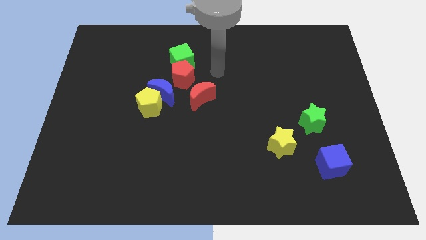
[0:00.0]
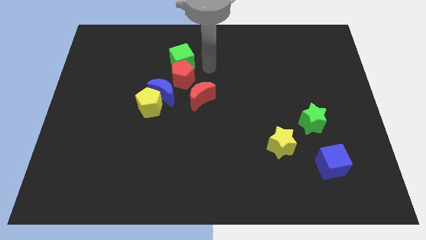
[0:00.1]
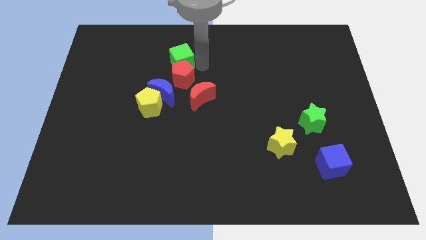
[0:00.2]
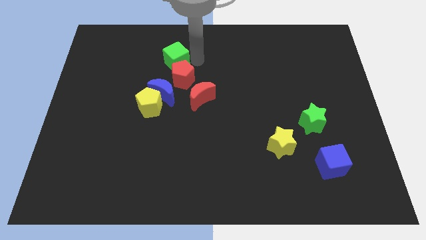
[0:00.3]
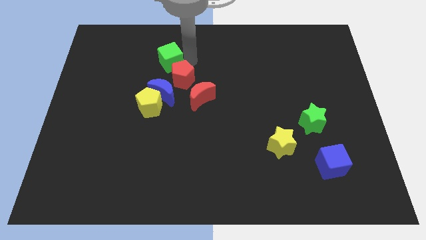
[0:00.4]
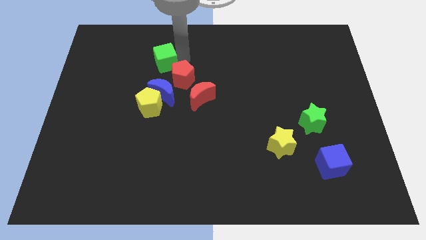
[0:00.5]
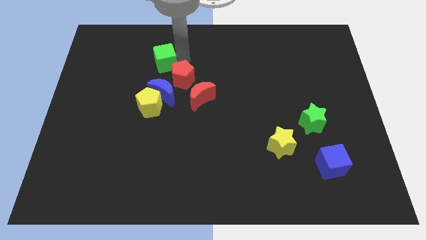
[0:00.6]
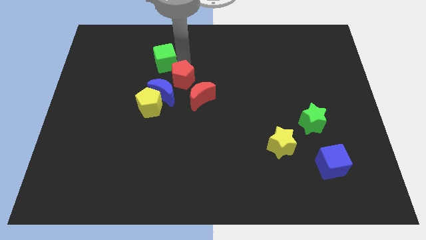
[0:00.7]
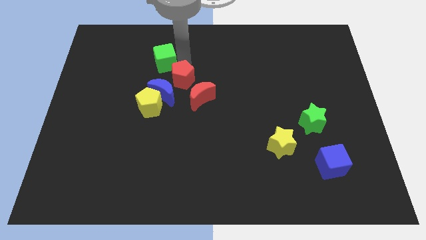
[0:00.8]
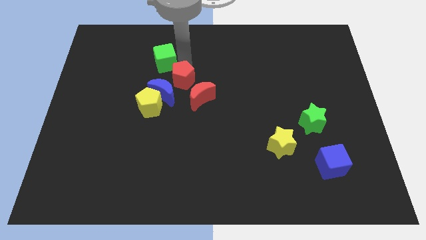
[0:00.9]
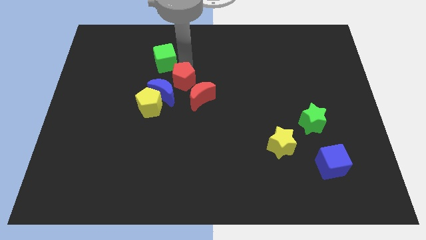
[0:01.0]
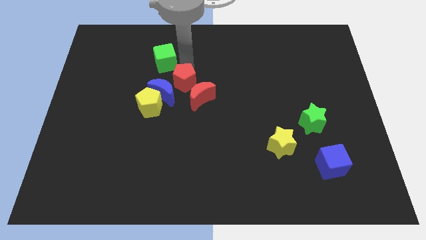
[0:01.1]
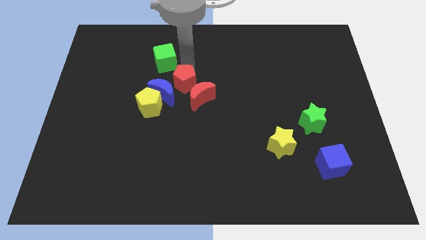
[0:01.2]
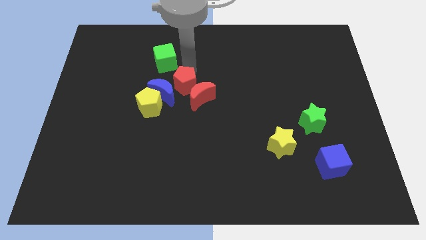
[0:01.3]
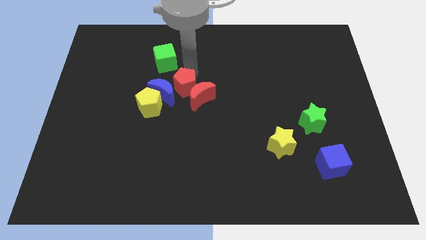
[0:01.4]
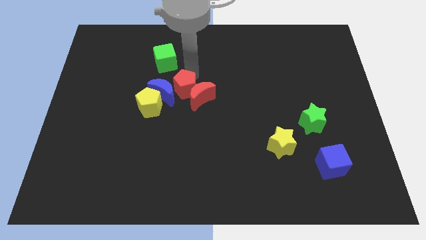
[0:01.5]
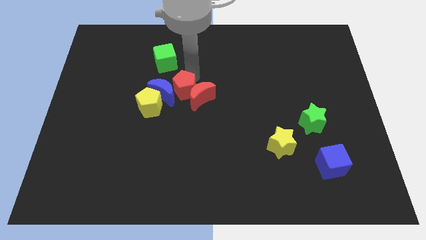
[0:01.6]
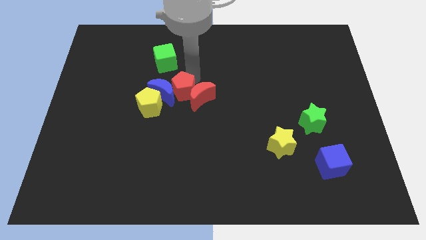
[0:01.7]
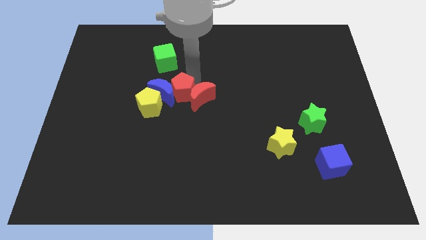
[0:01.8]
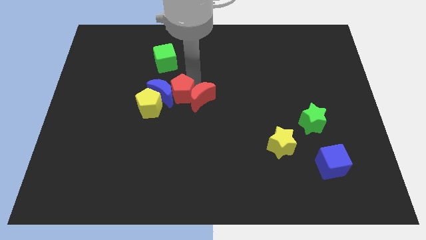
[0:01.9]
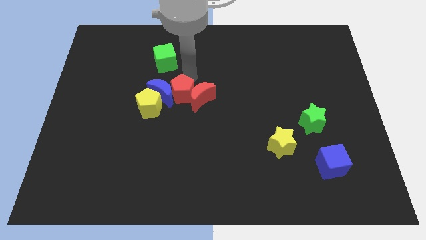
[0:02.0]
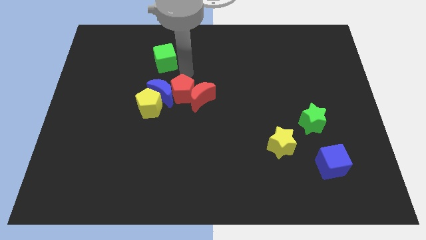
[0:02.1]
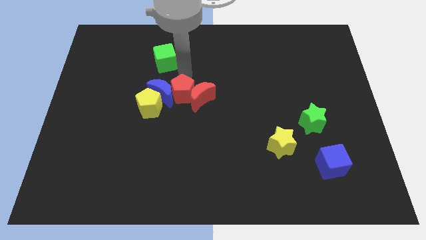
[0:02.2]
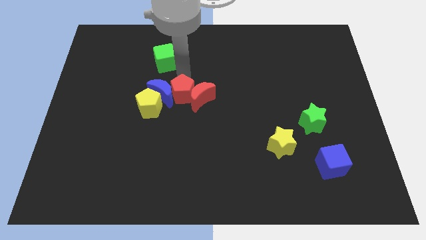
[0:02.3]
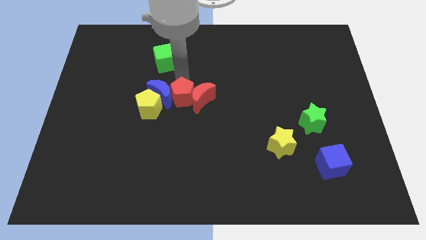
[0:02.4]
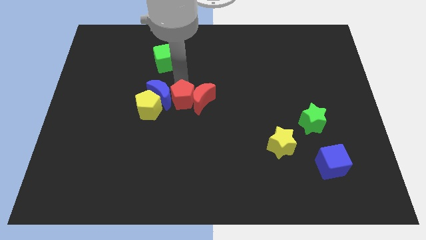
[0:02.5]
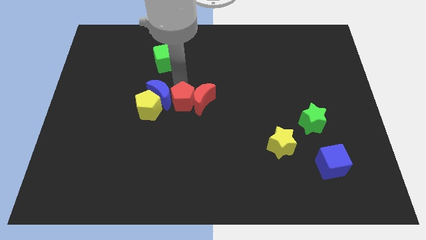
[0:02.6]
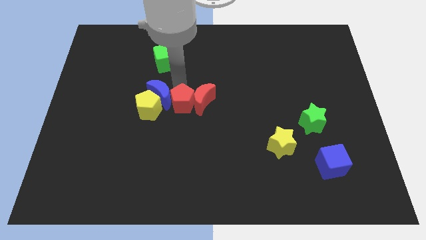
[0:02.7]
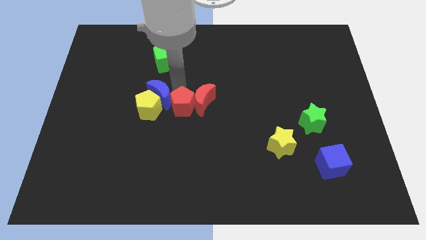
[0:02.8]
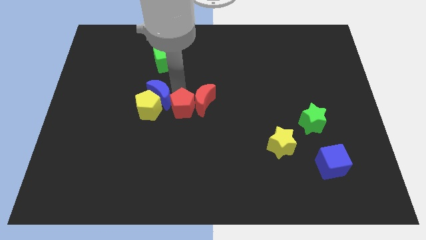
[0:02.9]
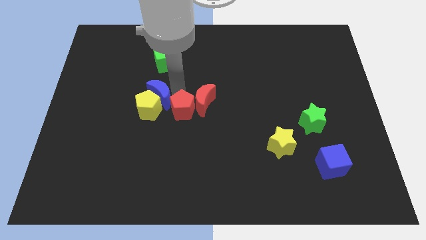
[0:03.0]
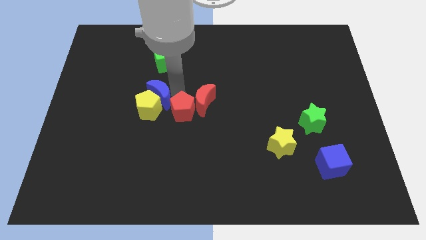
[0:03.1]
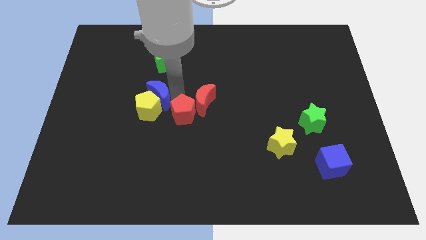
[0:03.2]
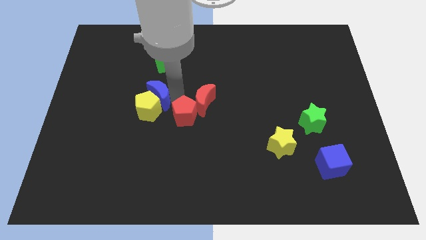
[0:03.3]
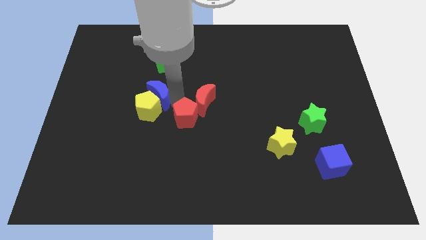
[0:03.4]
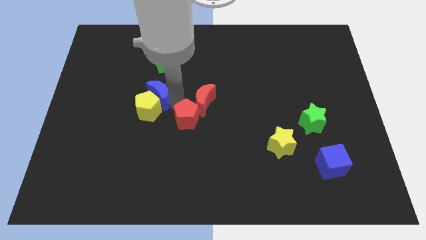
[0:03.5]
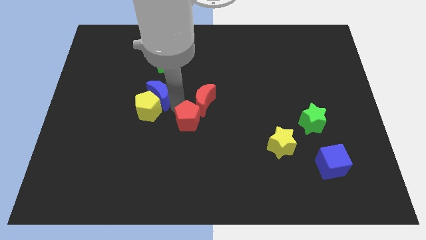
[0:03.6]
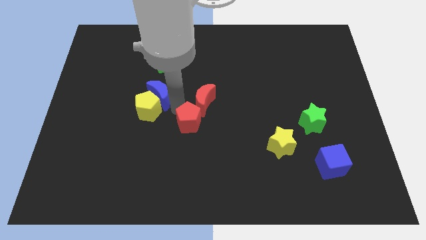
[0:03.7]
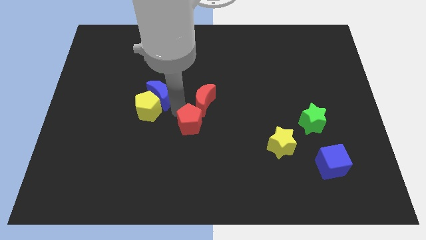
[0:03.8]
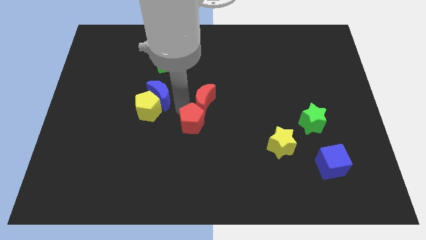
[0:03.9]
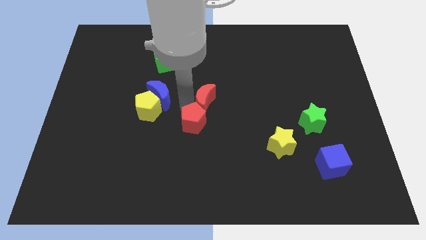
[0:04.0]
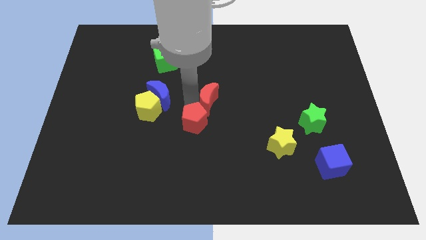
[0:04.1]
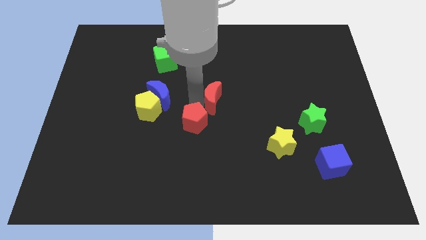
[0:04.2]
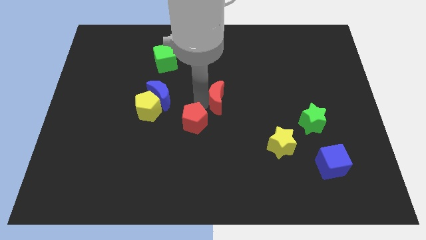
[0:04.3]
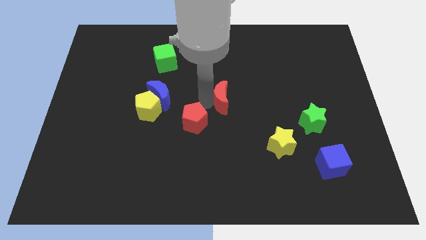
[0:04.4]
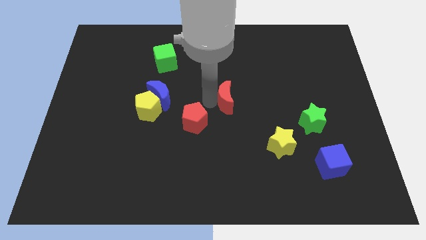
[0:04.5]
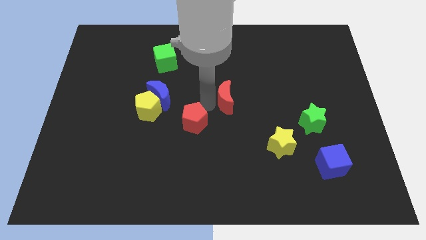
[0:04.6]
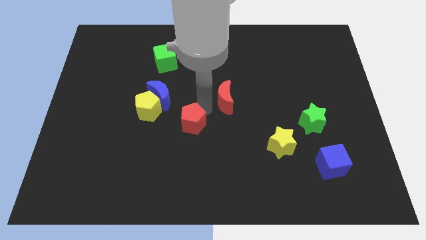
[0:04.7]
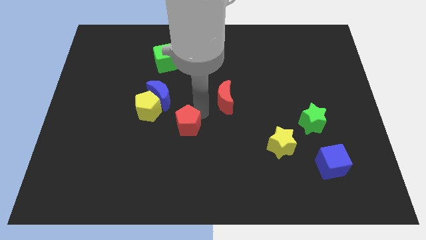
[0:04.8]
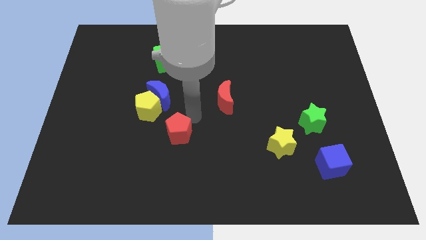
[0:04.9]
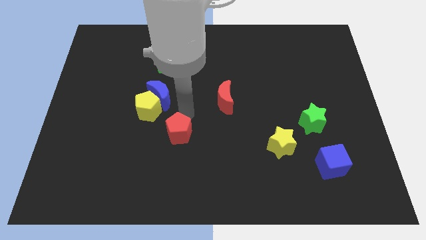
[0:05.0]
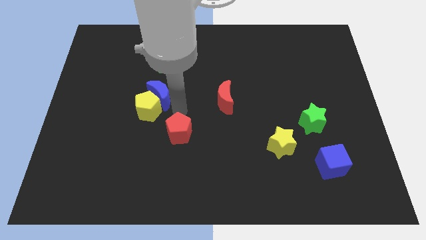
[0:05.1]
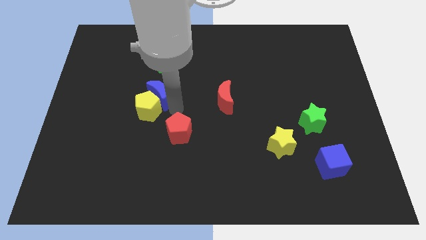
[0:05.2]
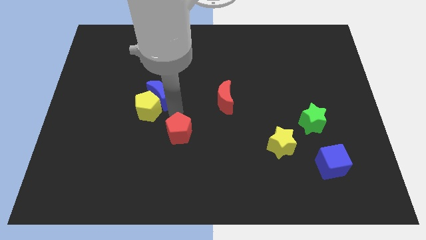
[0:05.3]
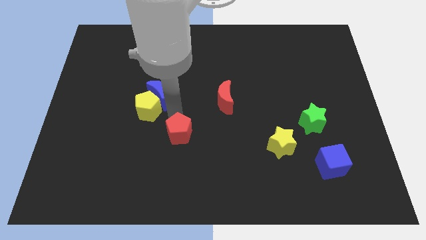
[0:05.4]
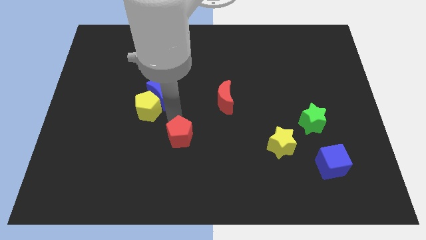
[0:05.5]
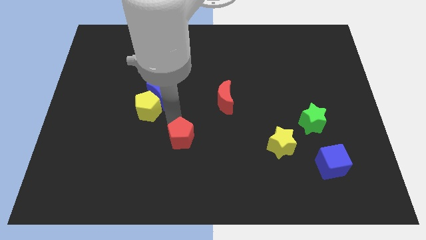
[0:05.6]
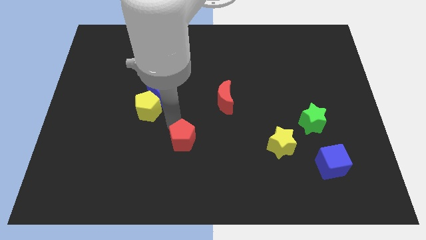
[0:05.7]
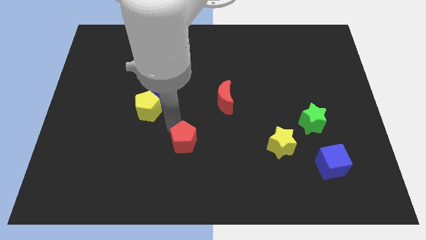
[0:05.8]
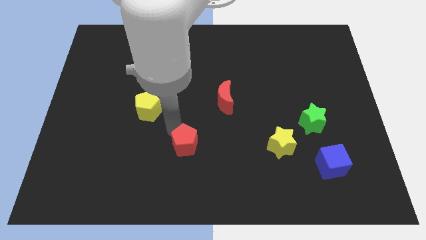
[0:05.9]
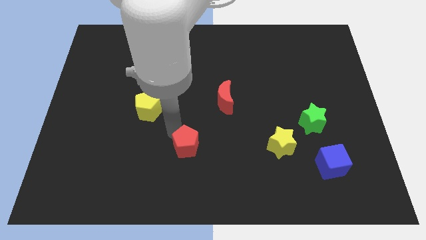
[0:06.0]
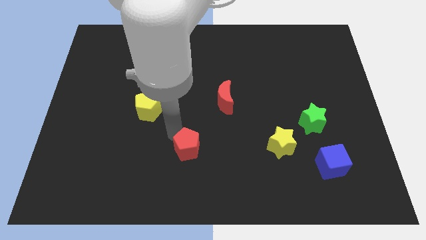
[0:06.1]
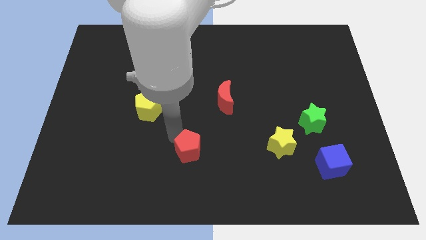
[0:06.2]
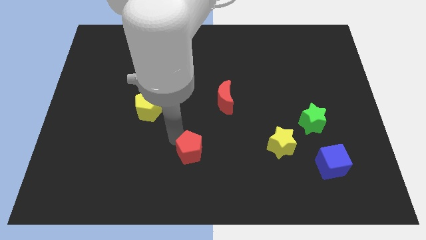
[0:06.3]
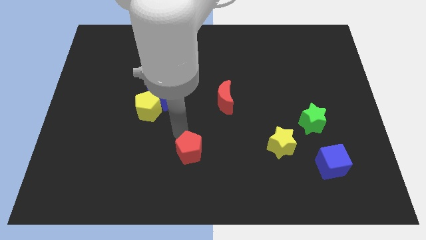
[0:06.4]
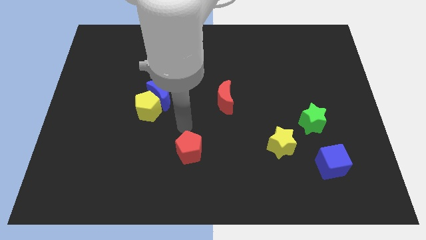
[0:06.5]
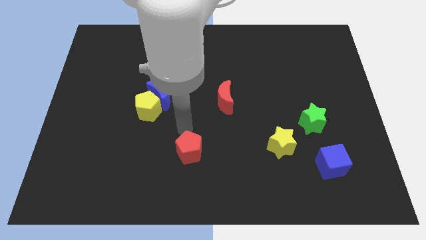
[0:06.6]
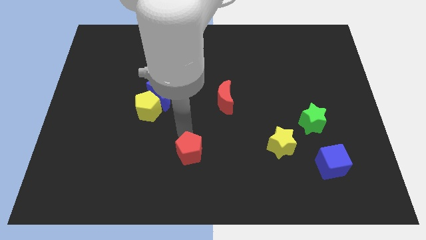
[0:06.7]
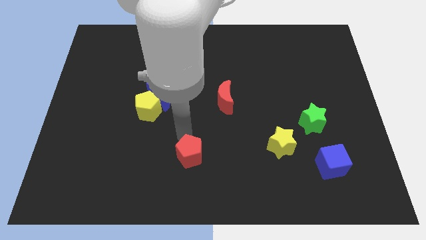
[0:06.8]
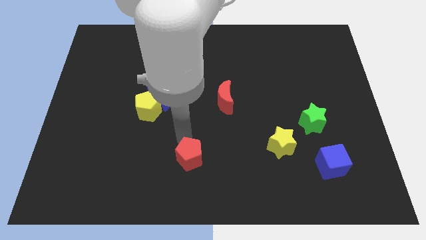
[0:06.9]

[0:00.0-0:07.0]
move the red pentagon to the bottom
